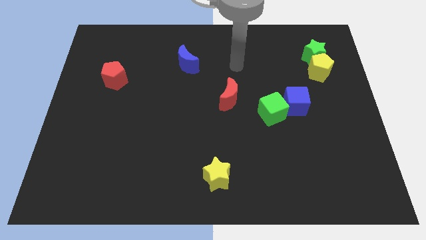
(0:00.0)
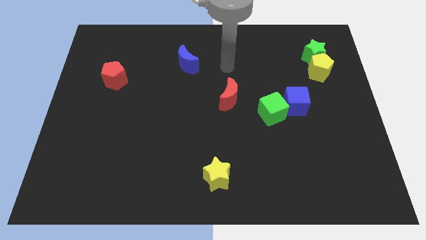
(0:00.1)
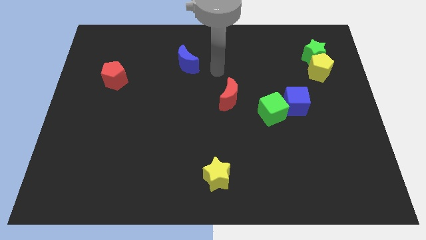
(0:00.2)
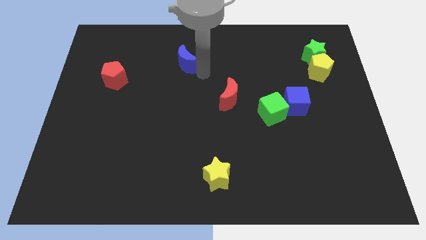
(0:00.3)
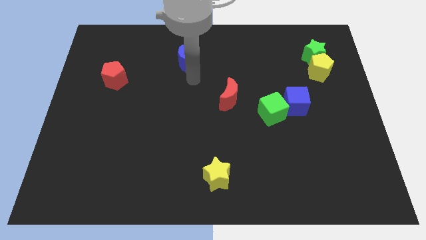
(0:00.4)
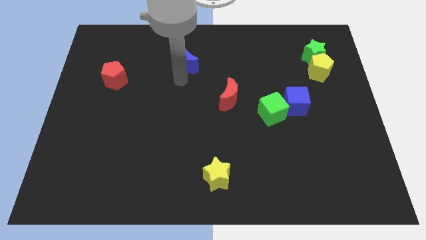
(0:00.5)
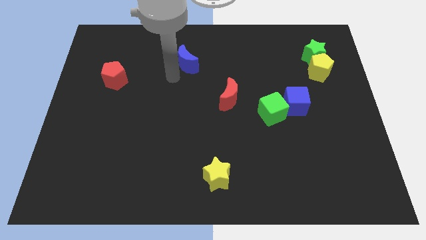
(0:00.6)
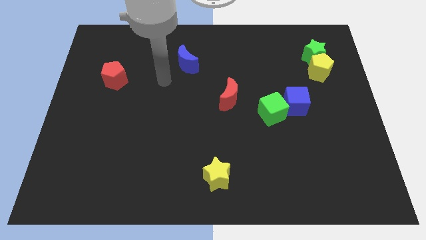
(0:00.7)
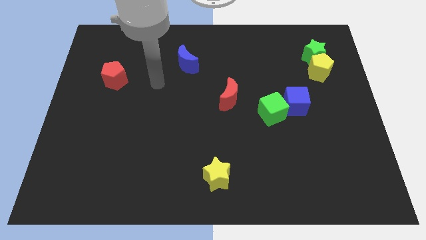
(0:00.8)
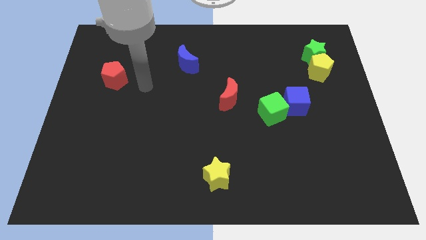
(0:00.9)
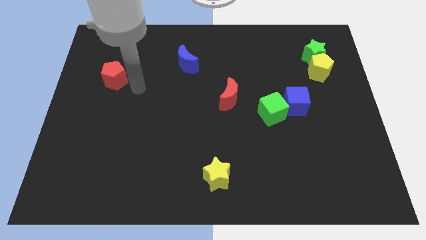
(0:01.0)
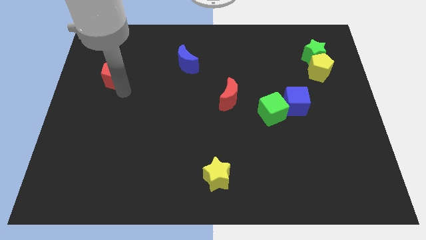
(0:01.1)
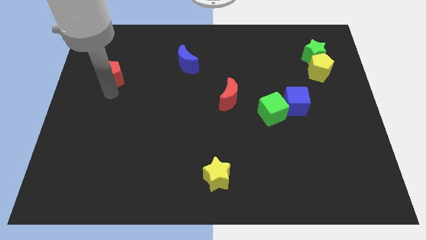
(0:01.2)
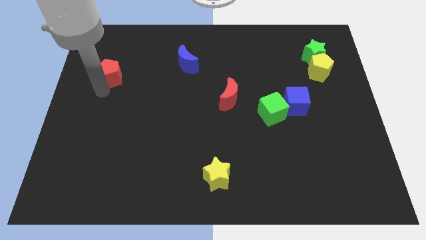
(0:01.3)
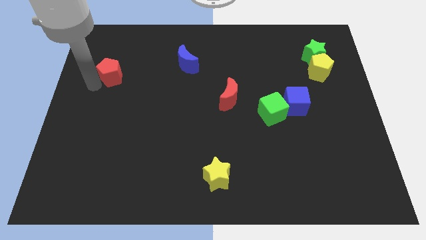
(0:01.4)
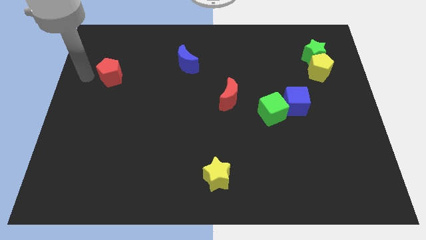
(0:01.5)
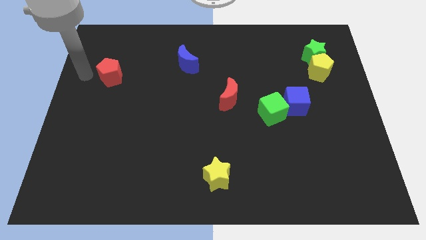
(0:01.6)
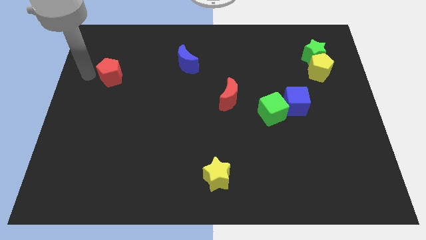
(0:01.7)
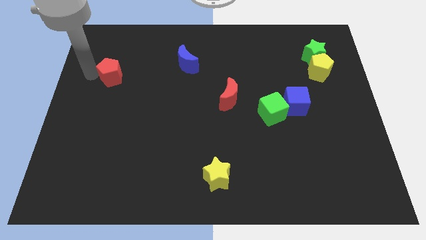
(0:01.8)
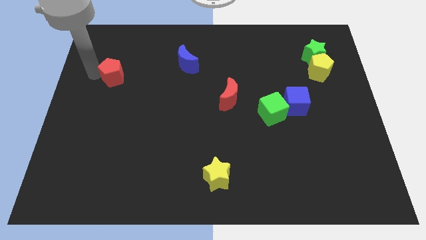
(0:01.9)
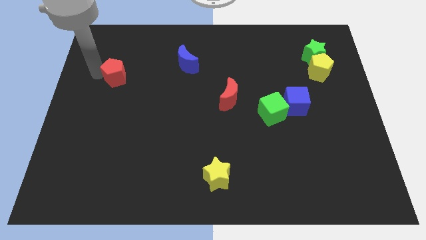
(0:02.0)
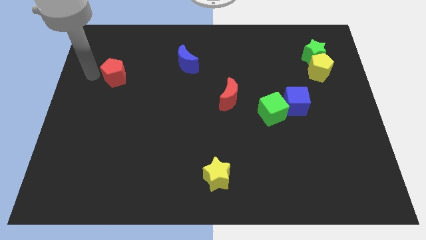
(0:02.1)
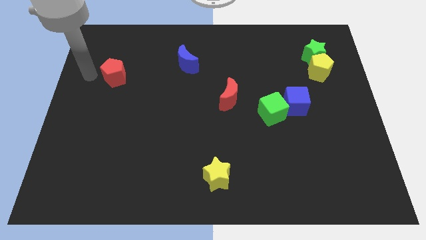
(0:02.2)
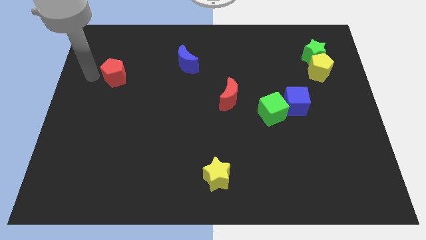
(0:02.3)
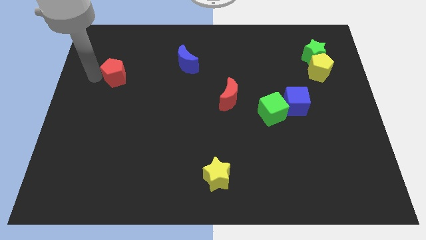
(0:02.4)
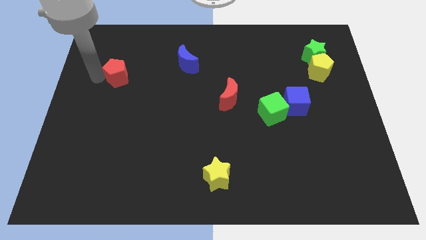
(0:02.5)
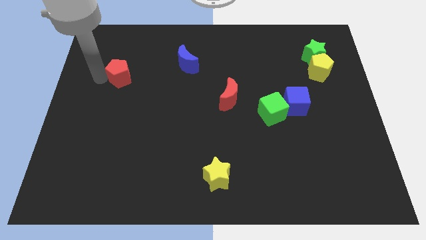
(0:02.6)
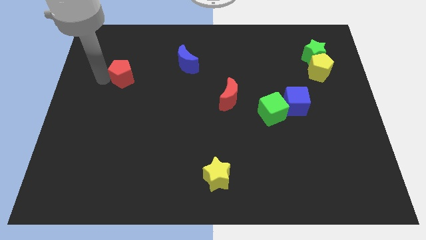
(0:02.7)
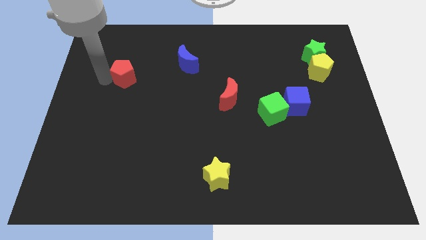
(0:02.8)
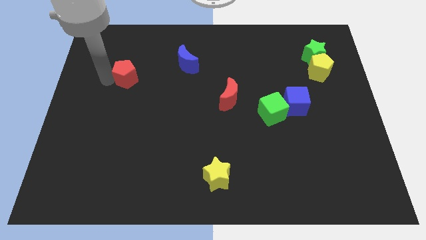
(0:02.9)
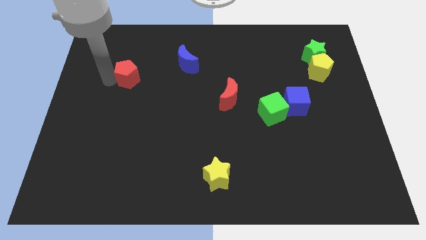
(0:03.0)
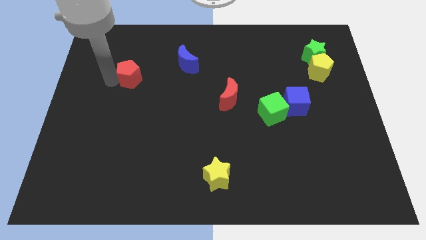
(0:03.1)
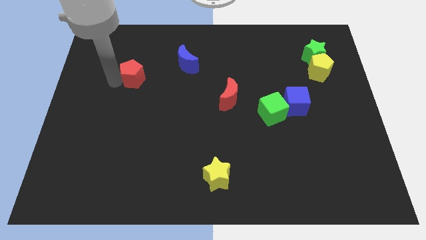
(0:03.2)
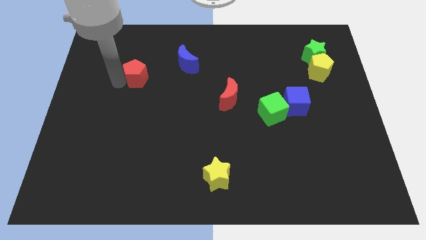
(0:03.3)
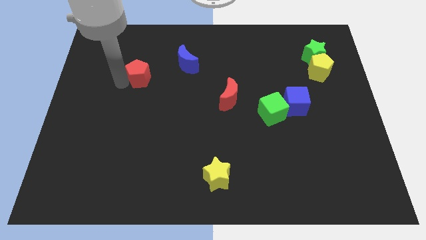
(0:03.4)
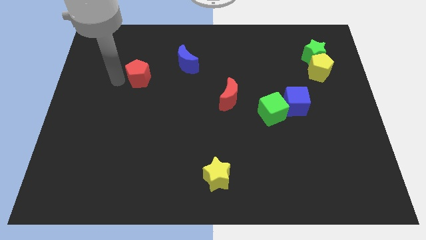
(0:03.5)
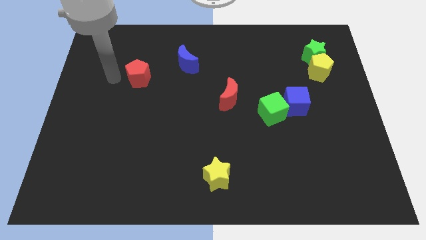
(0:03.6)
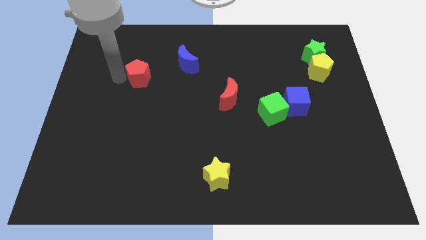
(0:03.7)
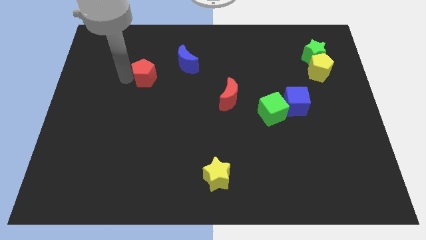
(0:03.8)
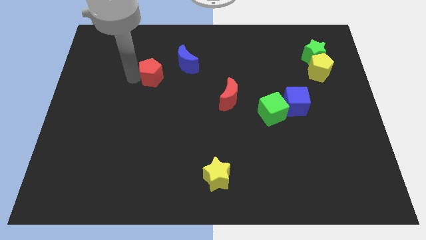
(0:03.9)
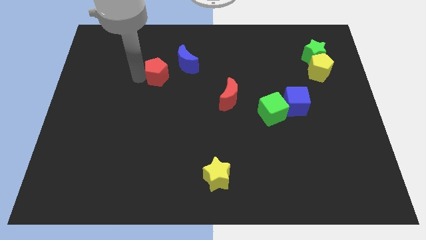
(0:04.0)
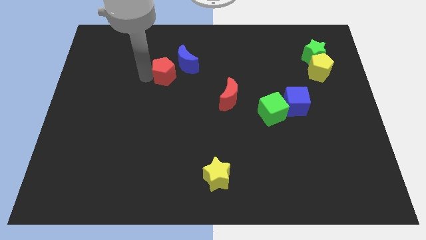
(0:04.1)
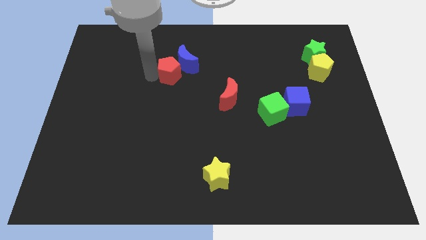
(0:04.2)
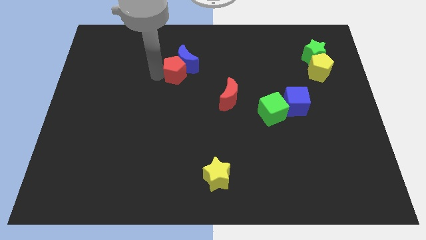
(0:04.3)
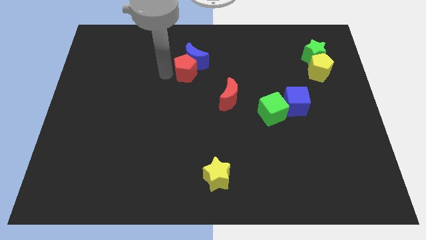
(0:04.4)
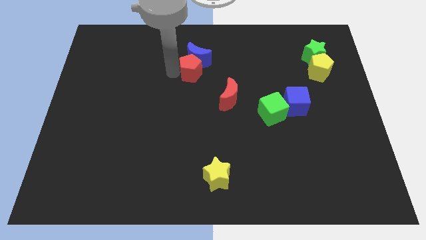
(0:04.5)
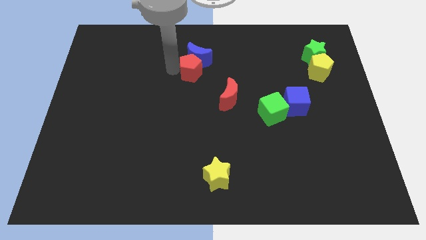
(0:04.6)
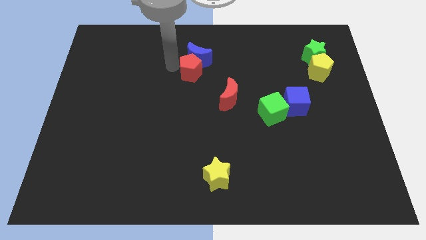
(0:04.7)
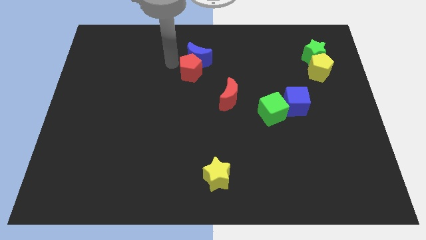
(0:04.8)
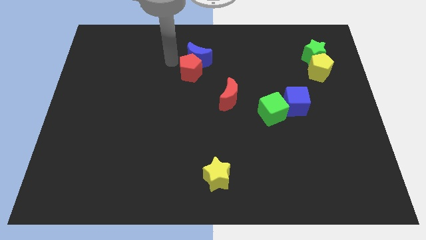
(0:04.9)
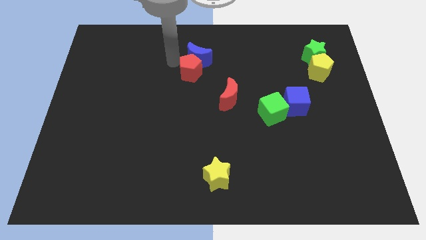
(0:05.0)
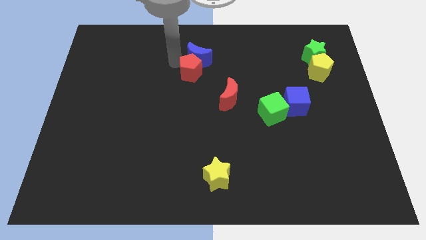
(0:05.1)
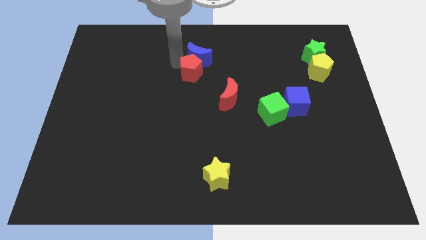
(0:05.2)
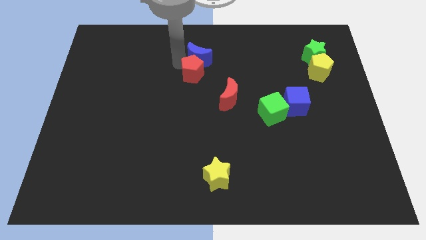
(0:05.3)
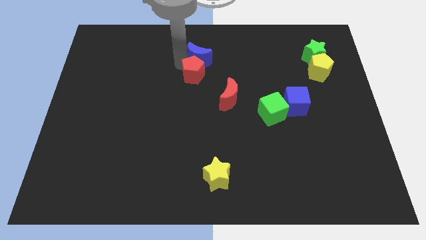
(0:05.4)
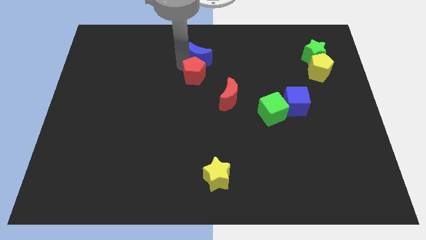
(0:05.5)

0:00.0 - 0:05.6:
slide the red pentagon to the right

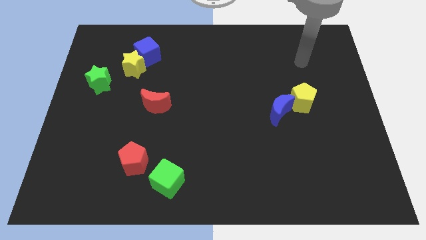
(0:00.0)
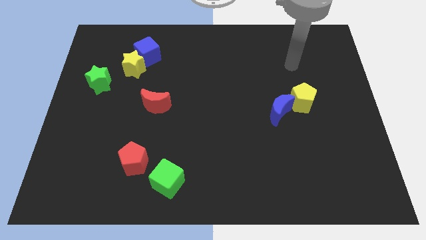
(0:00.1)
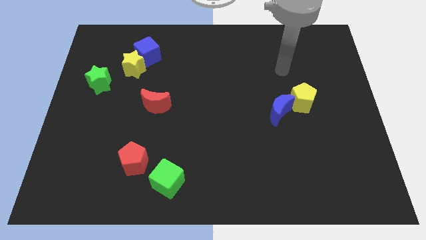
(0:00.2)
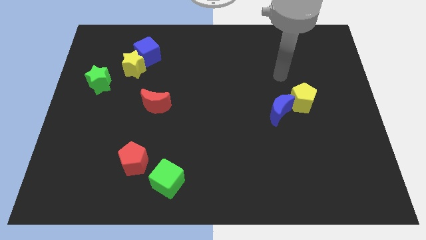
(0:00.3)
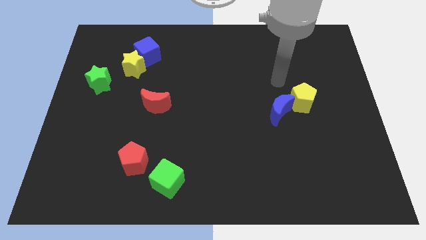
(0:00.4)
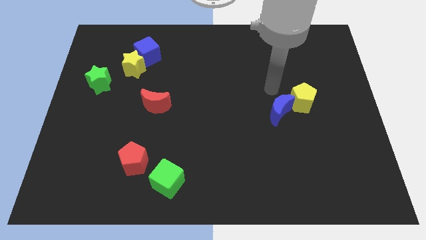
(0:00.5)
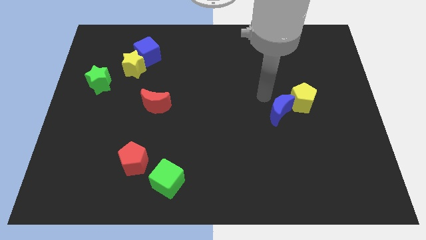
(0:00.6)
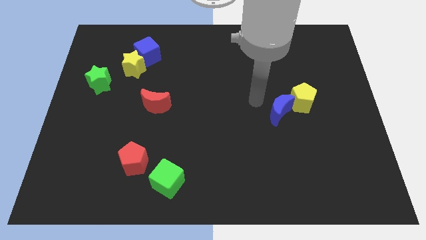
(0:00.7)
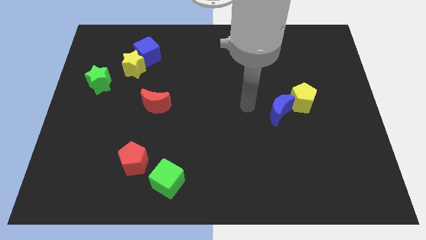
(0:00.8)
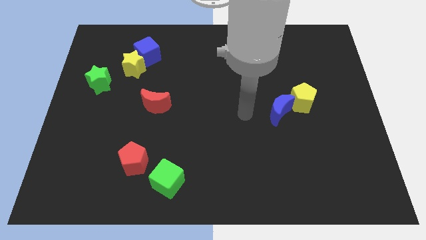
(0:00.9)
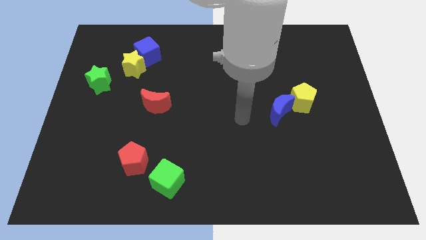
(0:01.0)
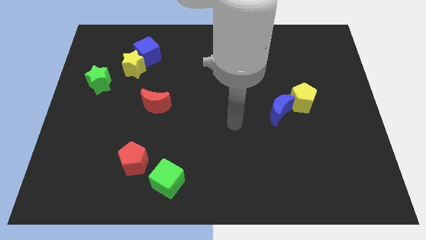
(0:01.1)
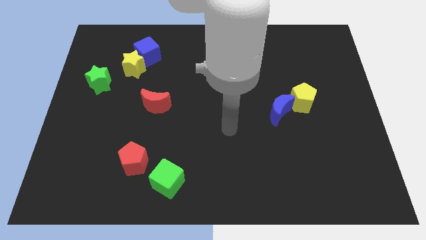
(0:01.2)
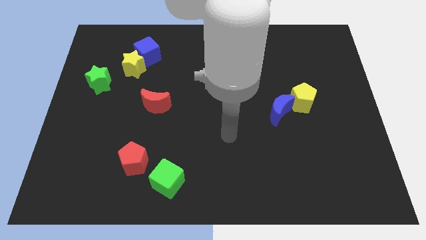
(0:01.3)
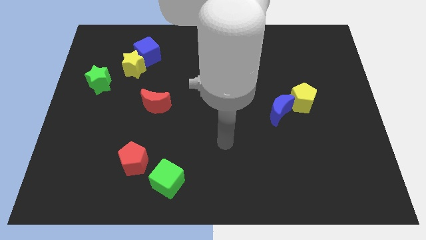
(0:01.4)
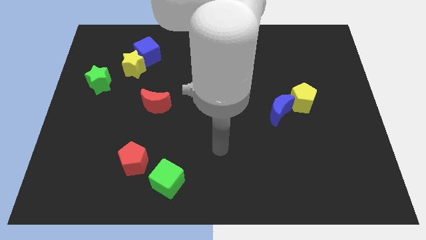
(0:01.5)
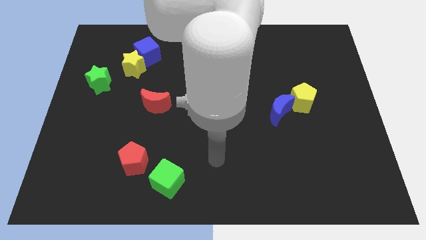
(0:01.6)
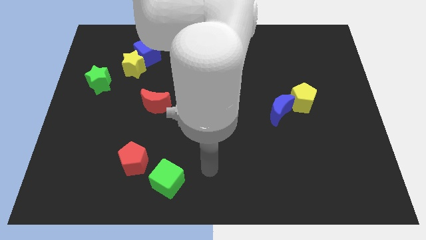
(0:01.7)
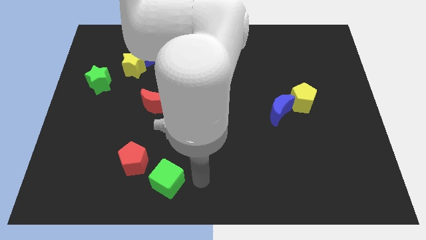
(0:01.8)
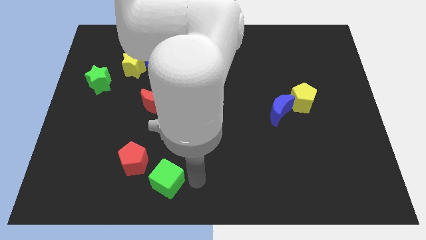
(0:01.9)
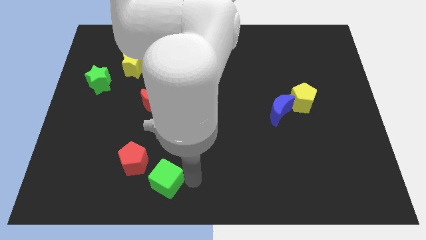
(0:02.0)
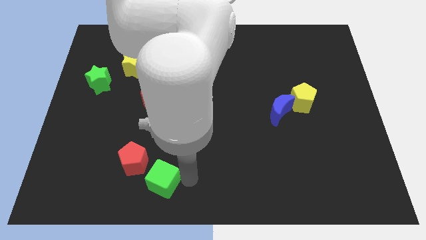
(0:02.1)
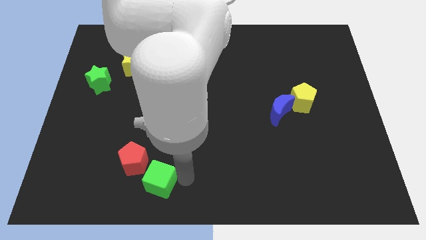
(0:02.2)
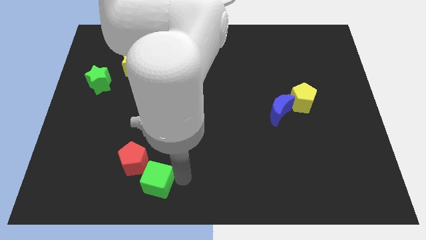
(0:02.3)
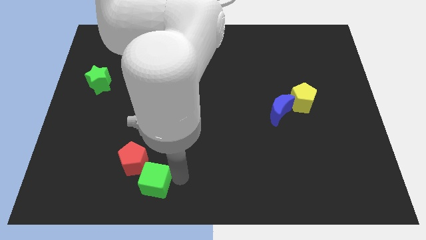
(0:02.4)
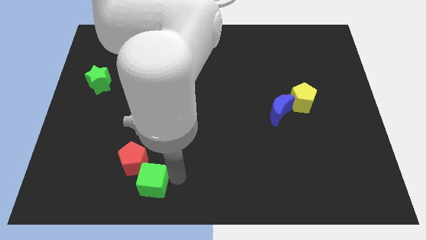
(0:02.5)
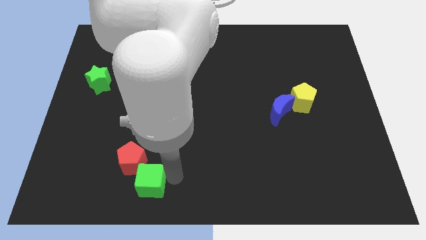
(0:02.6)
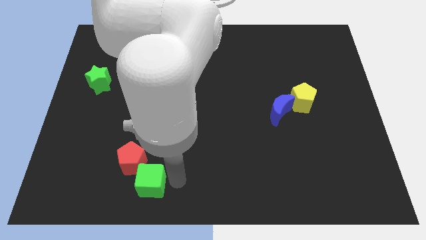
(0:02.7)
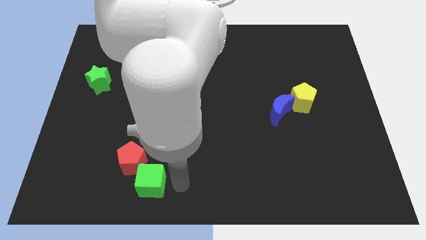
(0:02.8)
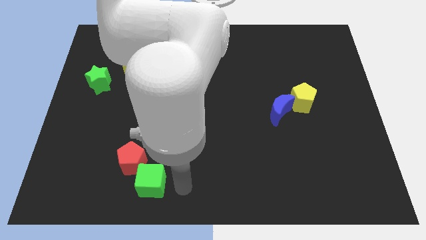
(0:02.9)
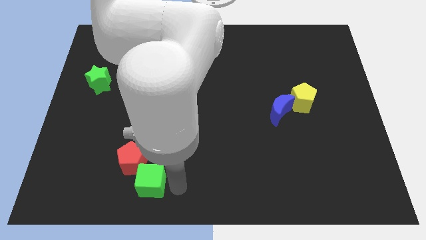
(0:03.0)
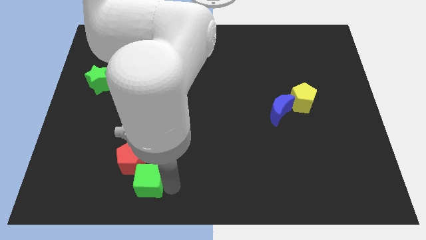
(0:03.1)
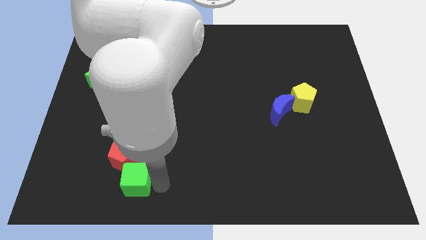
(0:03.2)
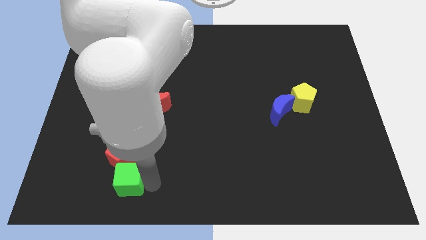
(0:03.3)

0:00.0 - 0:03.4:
push the green cube a bit left
